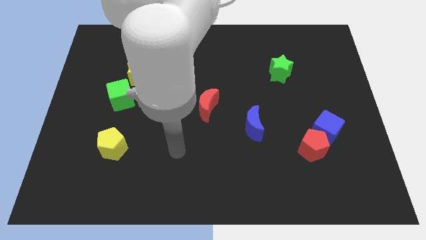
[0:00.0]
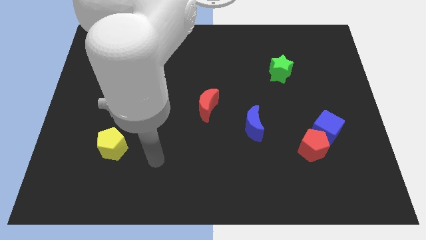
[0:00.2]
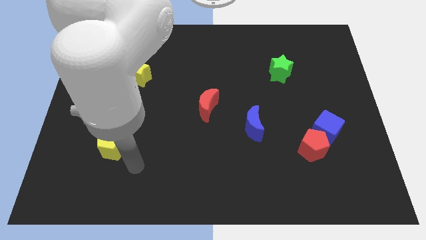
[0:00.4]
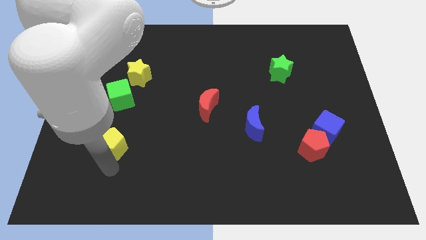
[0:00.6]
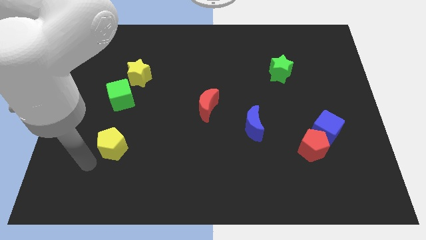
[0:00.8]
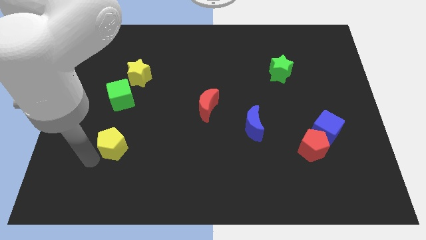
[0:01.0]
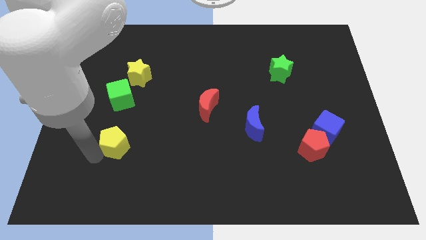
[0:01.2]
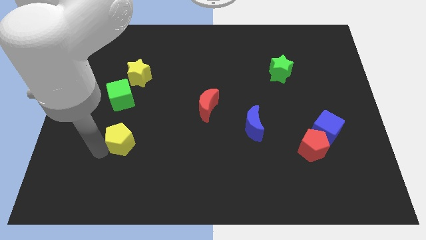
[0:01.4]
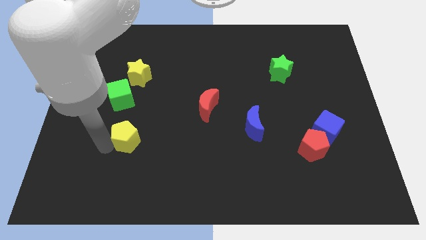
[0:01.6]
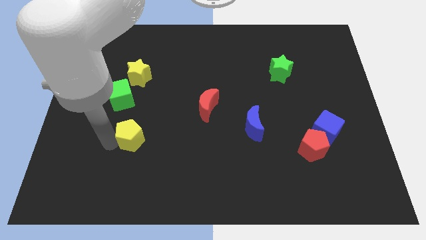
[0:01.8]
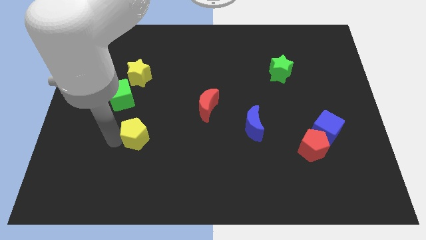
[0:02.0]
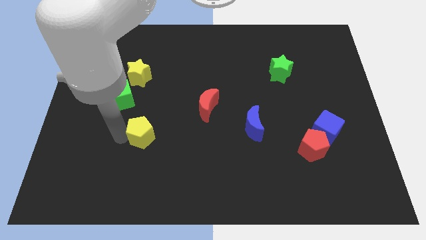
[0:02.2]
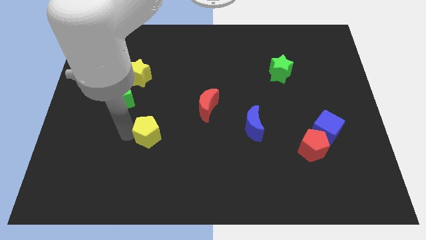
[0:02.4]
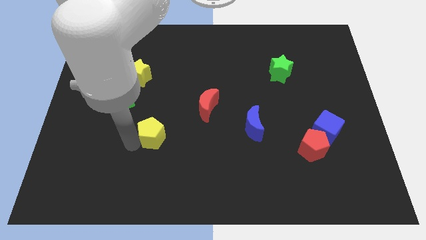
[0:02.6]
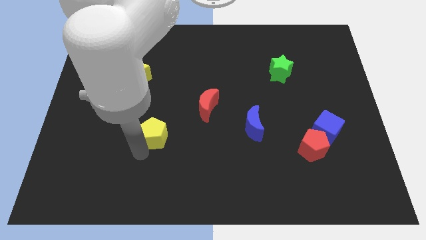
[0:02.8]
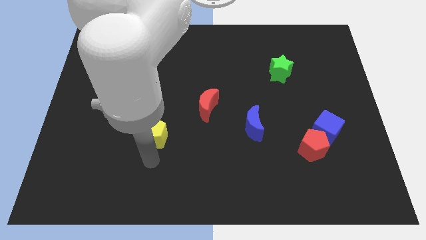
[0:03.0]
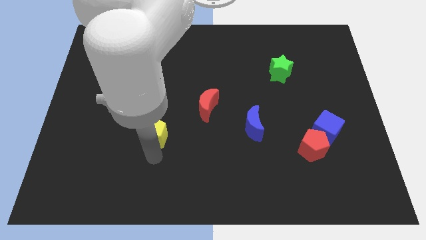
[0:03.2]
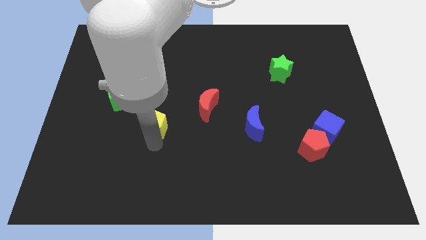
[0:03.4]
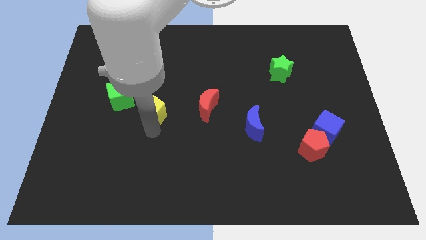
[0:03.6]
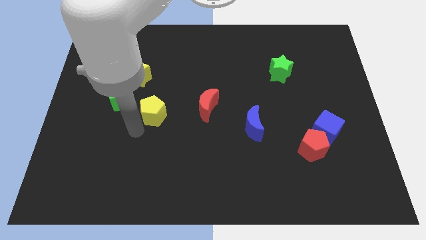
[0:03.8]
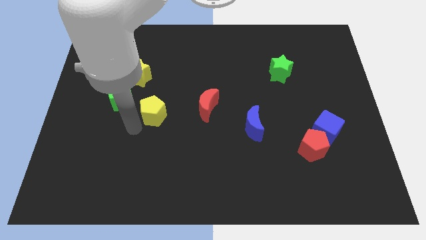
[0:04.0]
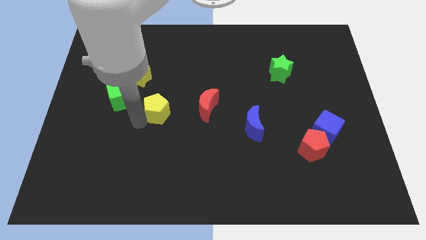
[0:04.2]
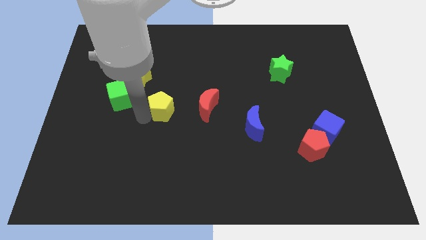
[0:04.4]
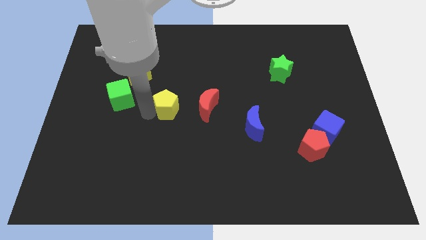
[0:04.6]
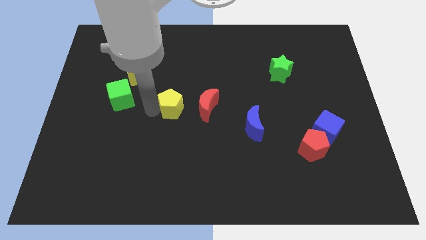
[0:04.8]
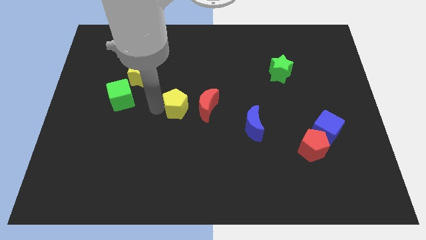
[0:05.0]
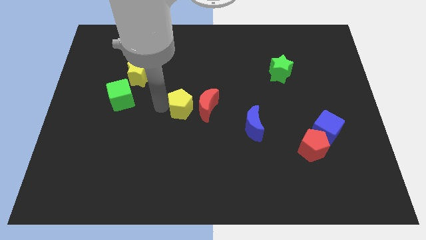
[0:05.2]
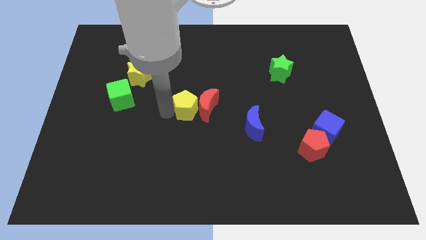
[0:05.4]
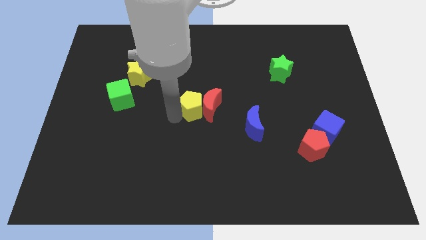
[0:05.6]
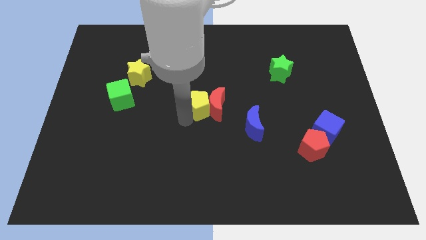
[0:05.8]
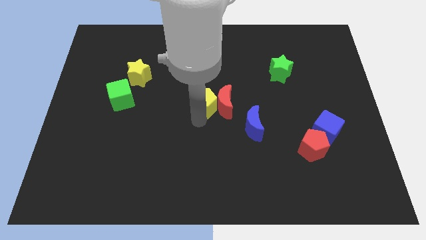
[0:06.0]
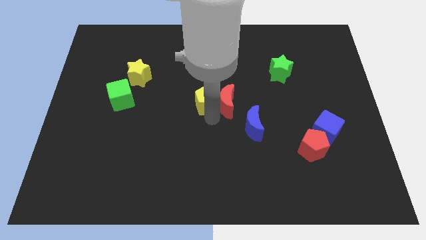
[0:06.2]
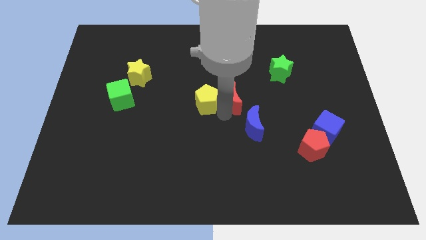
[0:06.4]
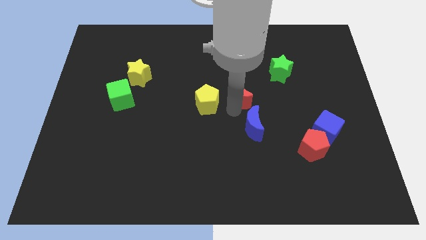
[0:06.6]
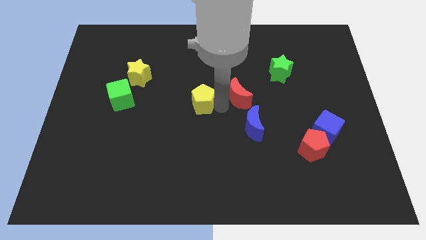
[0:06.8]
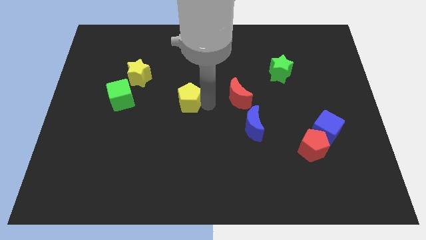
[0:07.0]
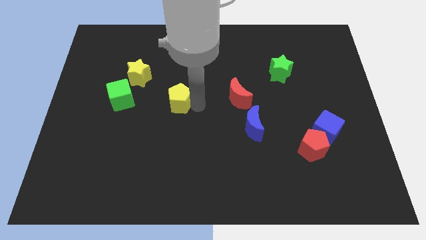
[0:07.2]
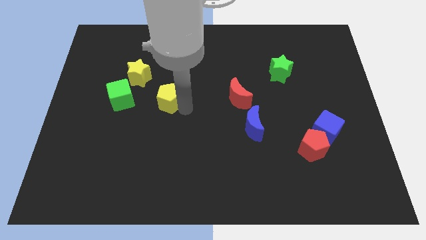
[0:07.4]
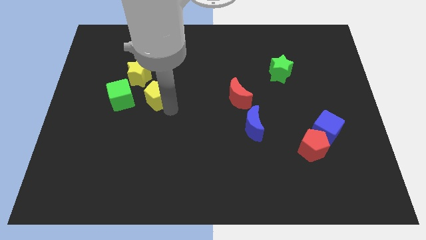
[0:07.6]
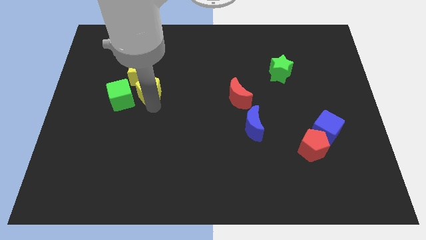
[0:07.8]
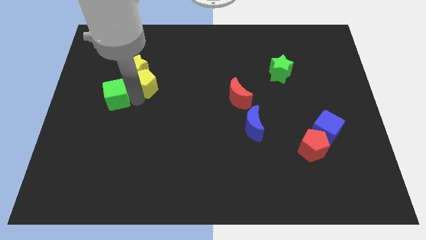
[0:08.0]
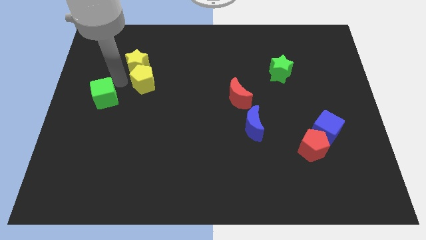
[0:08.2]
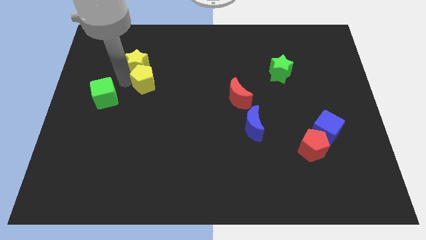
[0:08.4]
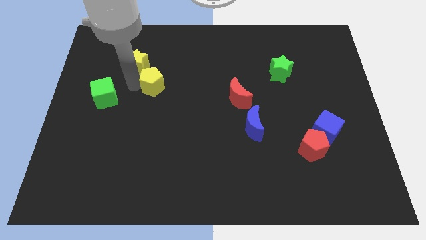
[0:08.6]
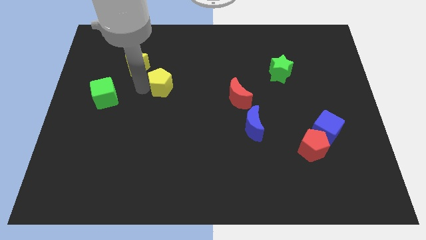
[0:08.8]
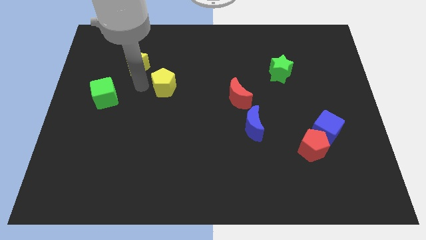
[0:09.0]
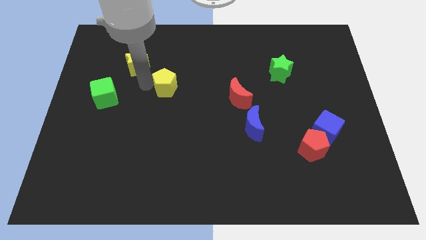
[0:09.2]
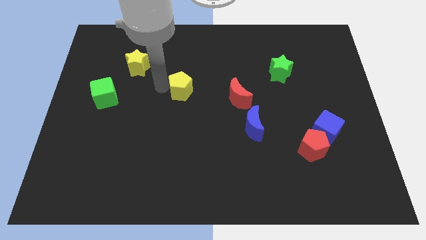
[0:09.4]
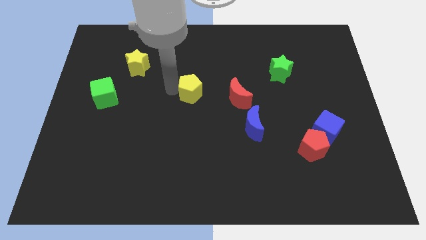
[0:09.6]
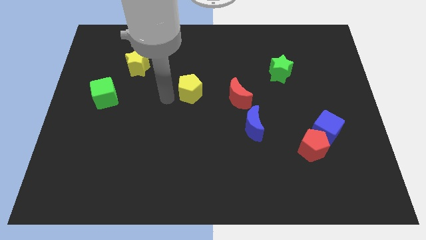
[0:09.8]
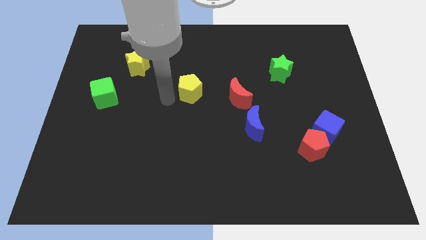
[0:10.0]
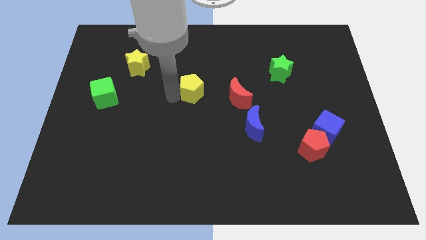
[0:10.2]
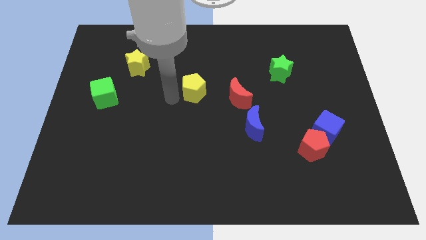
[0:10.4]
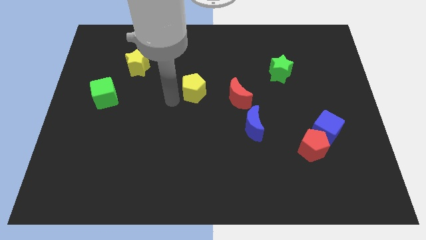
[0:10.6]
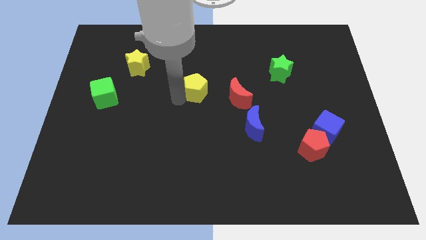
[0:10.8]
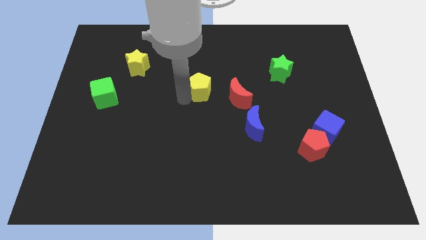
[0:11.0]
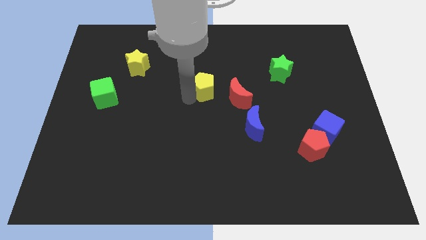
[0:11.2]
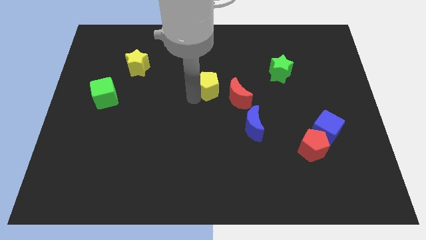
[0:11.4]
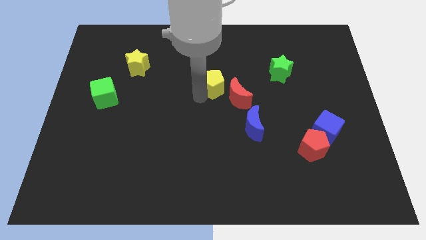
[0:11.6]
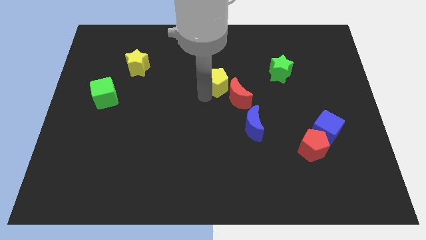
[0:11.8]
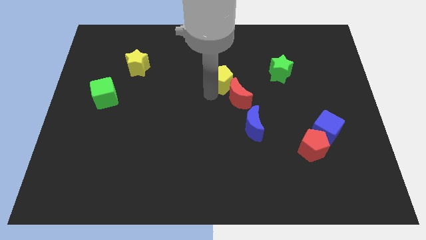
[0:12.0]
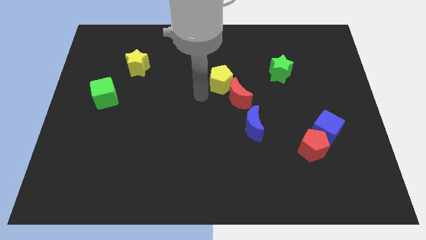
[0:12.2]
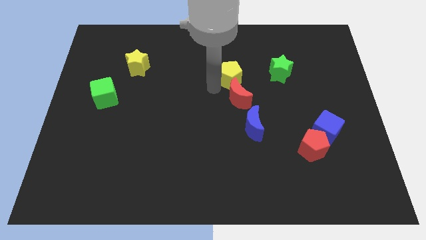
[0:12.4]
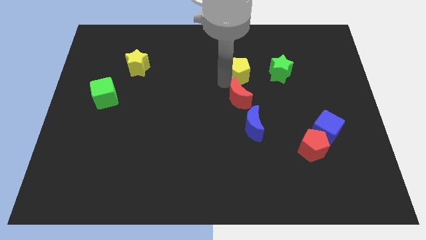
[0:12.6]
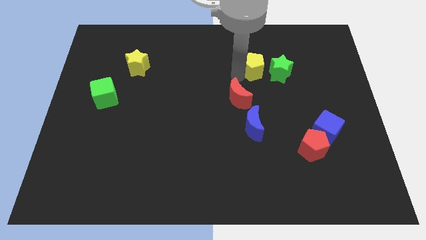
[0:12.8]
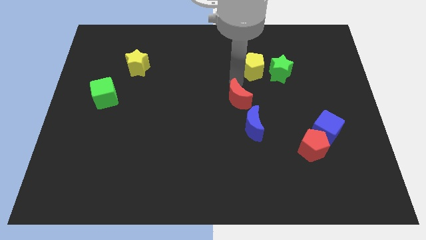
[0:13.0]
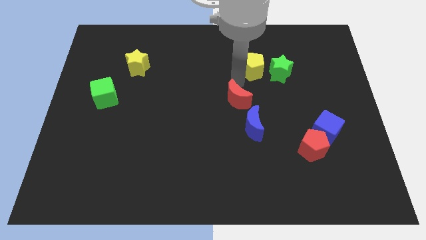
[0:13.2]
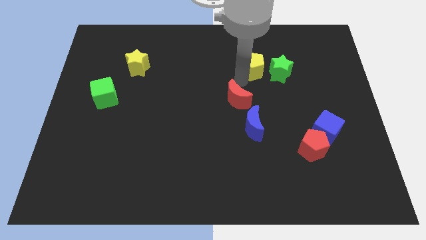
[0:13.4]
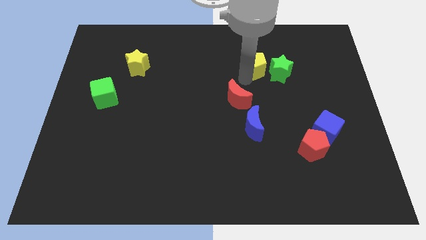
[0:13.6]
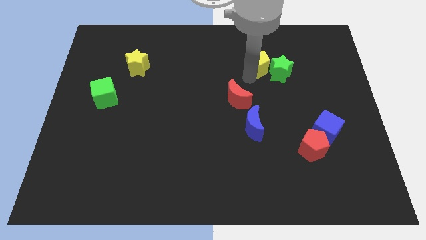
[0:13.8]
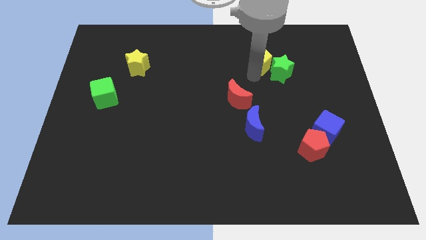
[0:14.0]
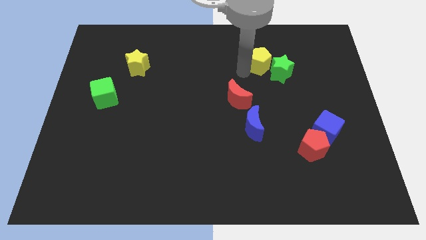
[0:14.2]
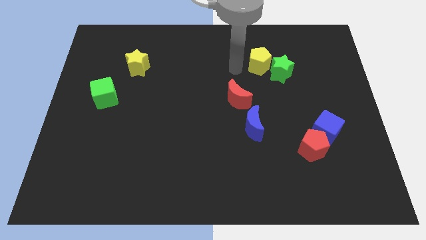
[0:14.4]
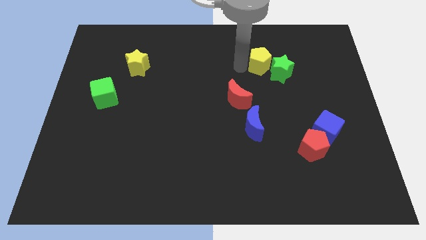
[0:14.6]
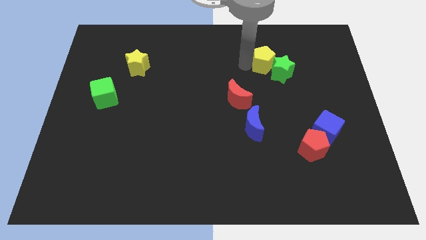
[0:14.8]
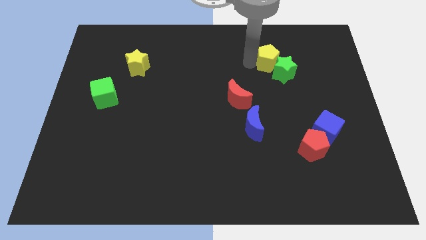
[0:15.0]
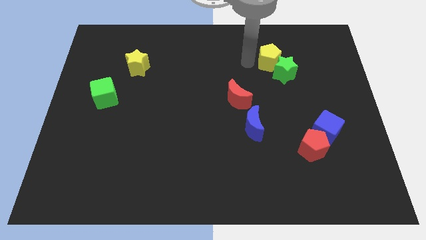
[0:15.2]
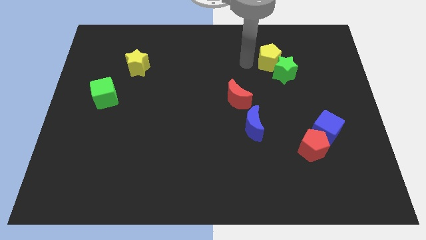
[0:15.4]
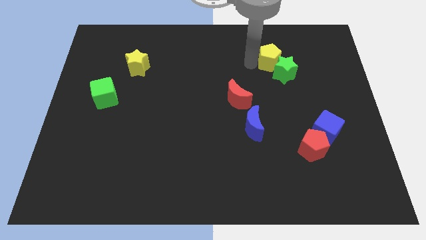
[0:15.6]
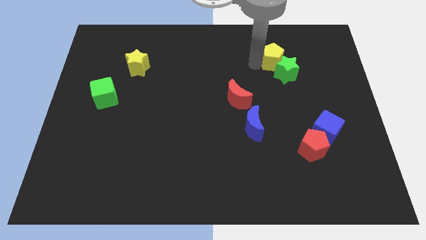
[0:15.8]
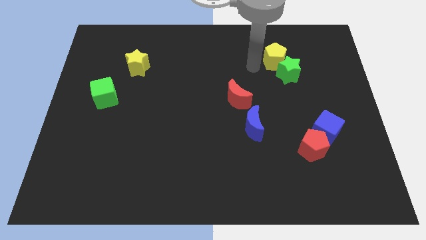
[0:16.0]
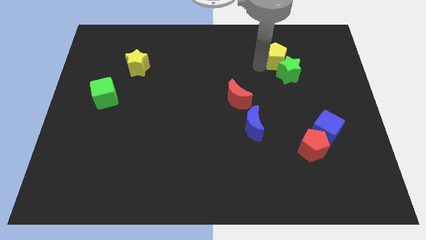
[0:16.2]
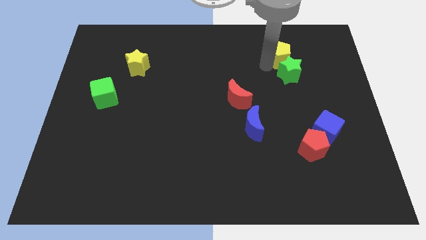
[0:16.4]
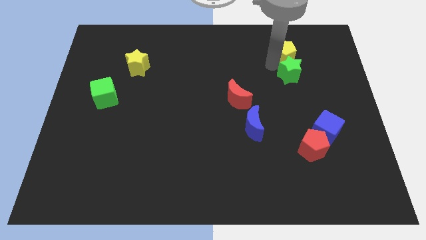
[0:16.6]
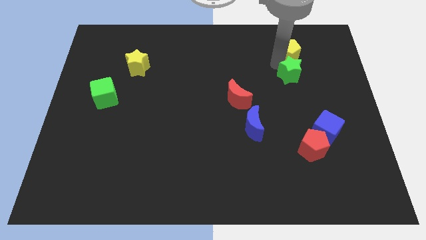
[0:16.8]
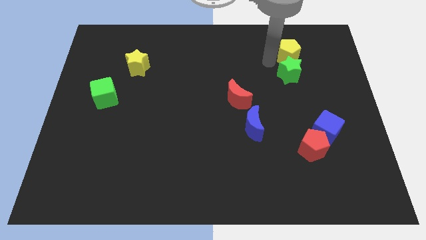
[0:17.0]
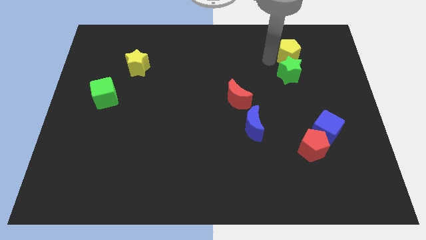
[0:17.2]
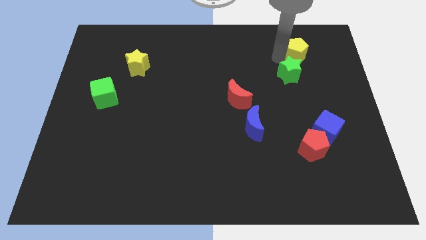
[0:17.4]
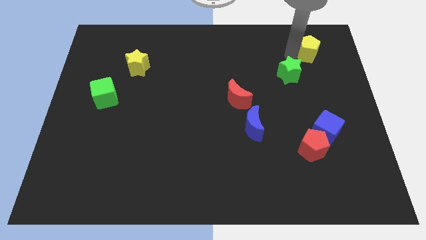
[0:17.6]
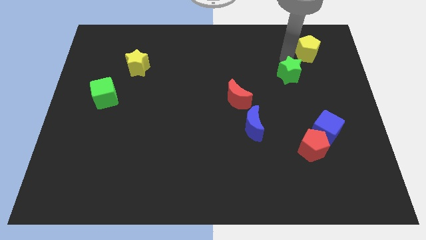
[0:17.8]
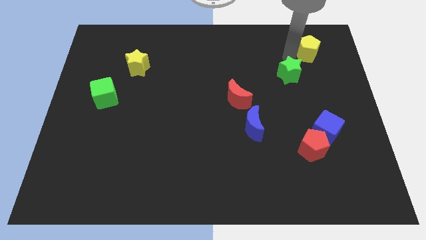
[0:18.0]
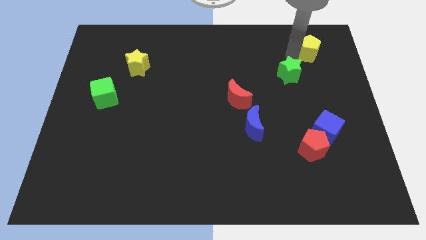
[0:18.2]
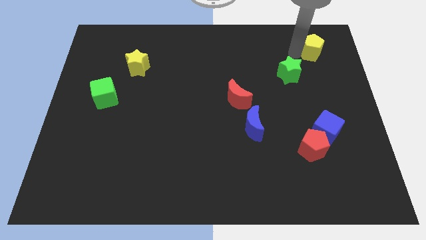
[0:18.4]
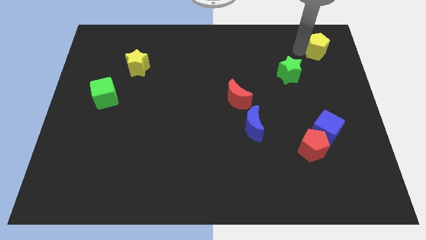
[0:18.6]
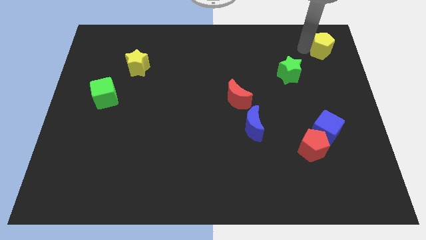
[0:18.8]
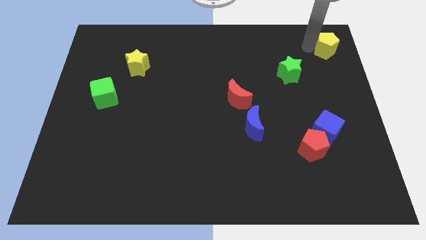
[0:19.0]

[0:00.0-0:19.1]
put the yellow pentagon to the top right of the board
